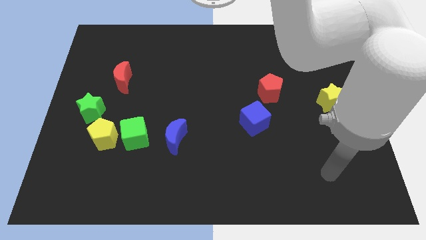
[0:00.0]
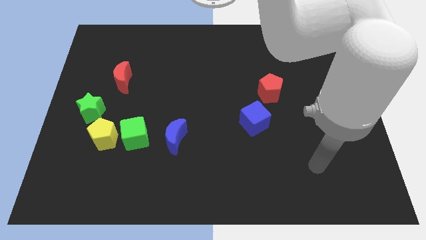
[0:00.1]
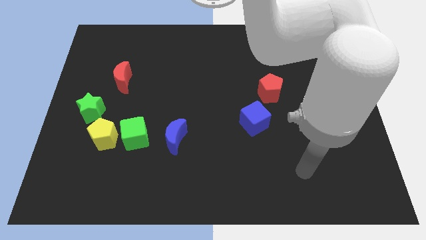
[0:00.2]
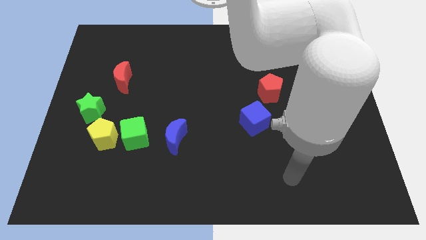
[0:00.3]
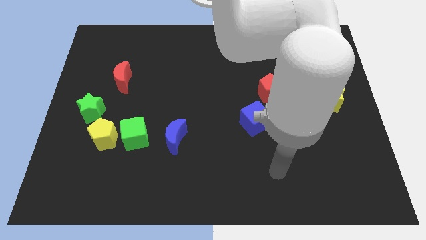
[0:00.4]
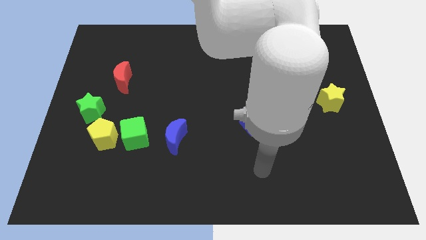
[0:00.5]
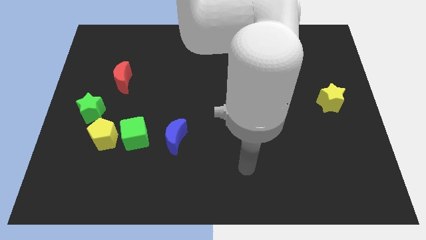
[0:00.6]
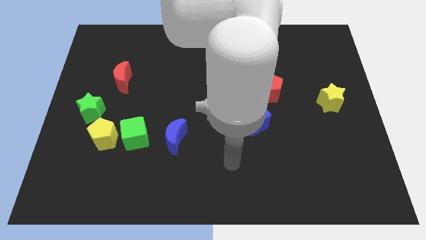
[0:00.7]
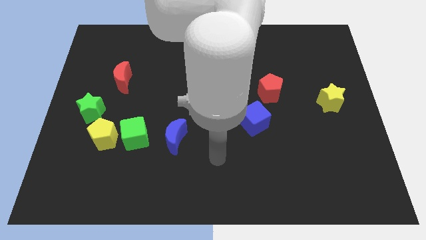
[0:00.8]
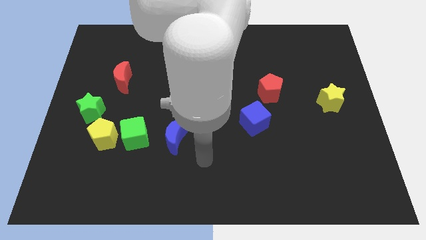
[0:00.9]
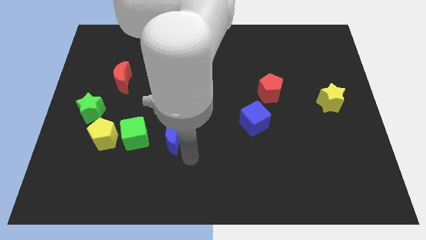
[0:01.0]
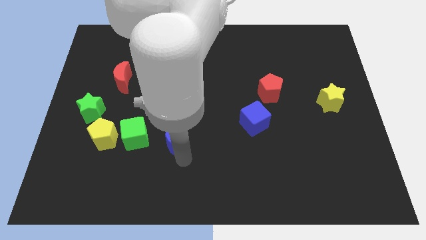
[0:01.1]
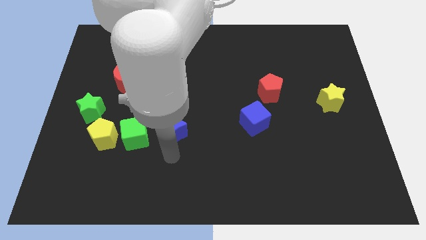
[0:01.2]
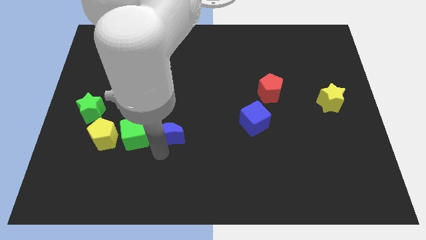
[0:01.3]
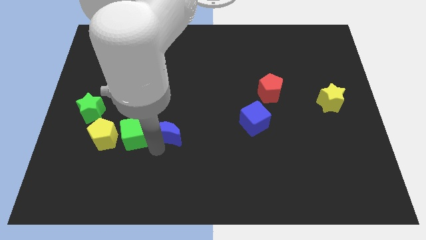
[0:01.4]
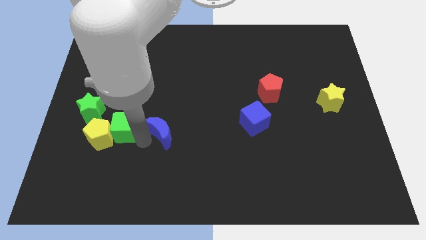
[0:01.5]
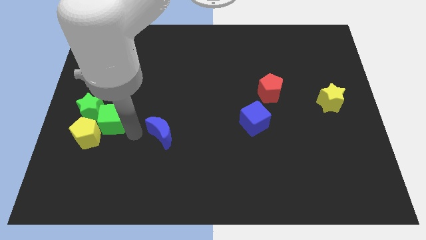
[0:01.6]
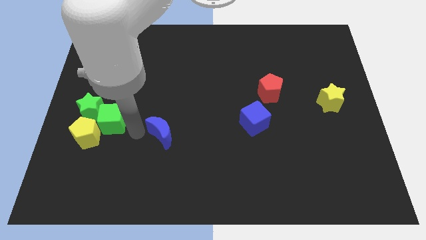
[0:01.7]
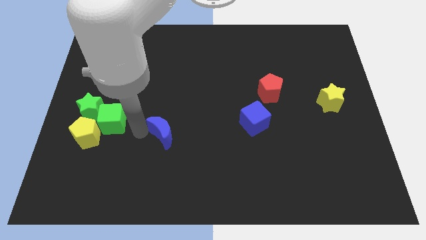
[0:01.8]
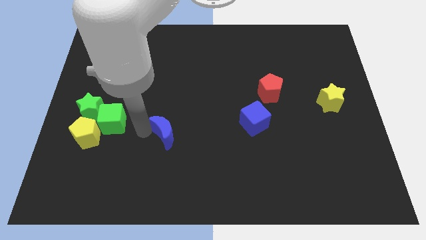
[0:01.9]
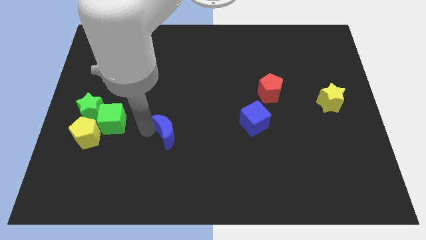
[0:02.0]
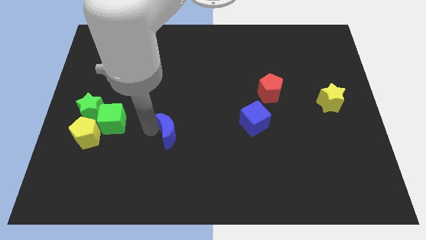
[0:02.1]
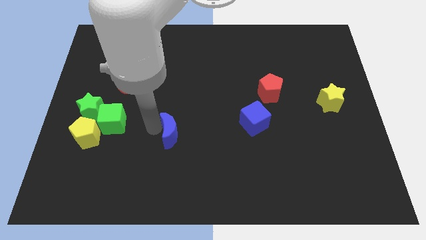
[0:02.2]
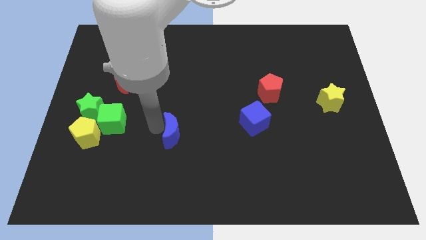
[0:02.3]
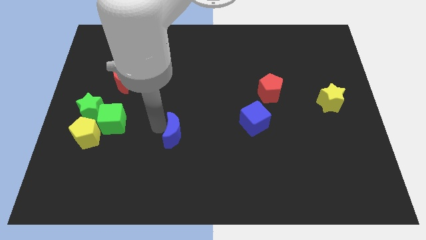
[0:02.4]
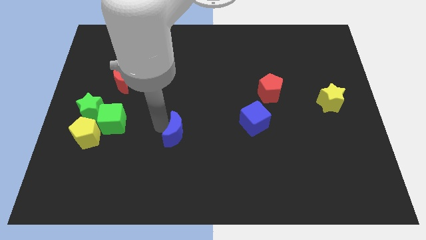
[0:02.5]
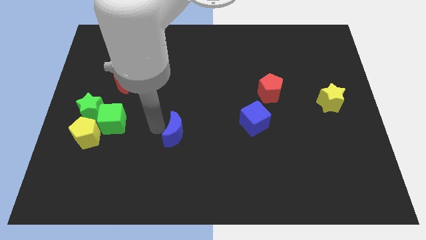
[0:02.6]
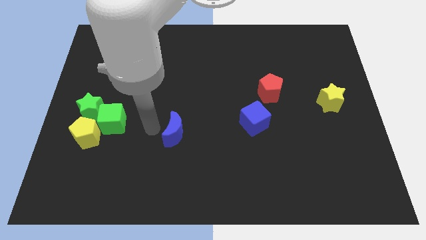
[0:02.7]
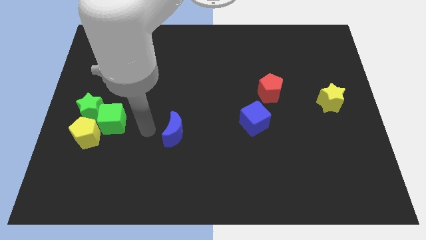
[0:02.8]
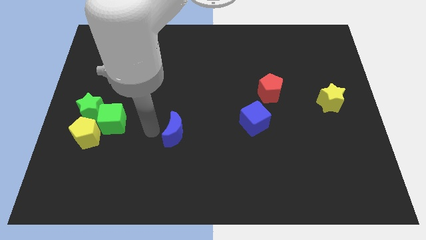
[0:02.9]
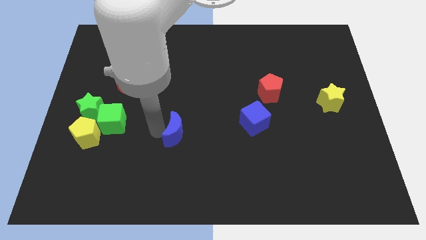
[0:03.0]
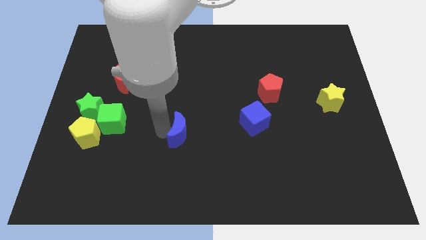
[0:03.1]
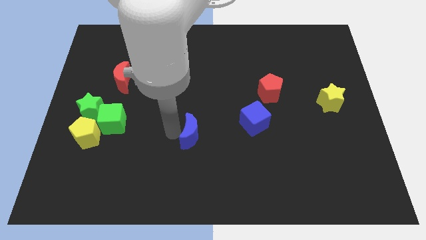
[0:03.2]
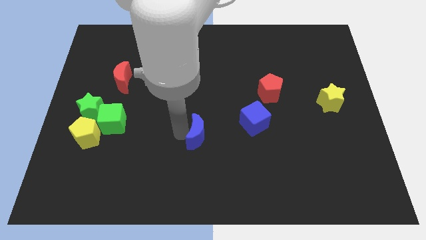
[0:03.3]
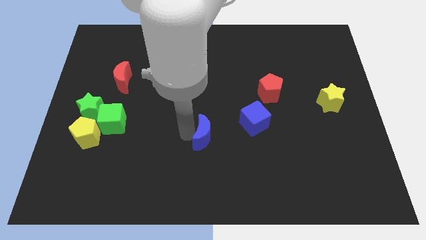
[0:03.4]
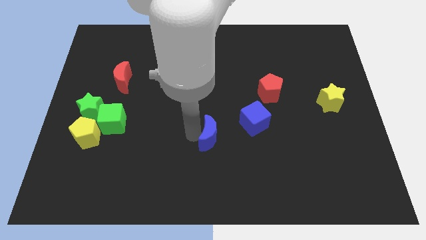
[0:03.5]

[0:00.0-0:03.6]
push the blue moon a little bit right

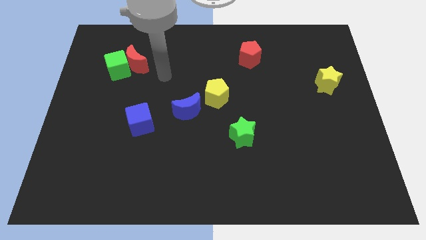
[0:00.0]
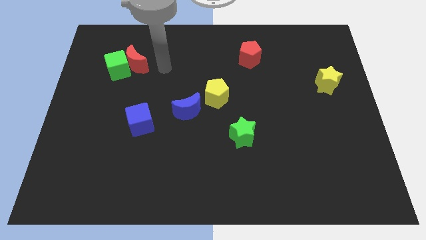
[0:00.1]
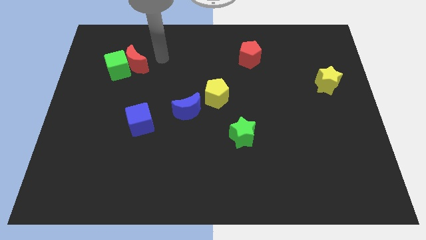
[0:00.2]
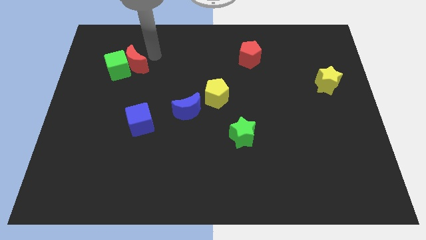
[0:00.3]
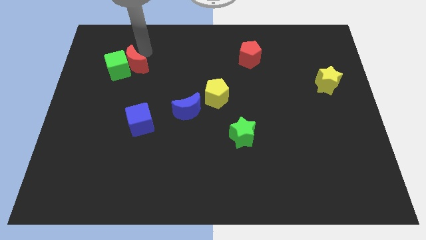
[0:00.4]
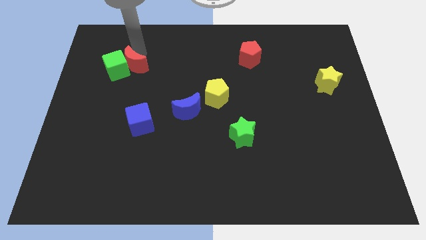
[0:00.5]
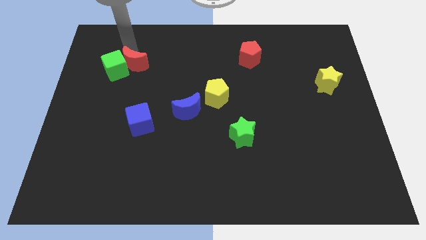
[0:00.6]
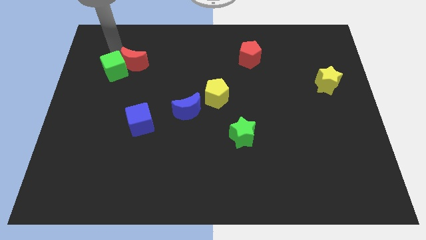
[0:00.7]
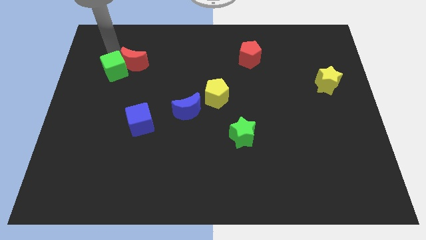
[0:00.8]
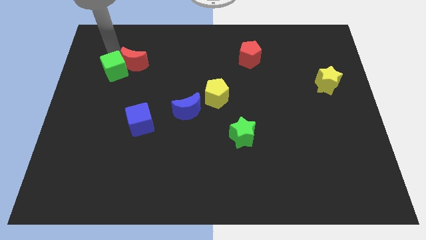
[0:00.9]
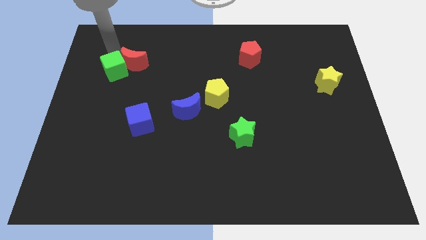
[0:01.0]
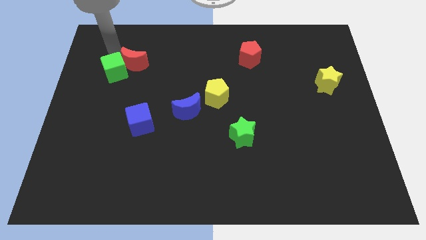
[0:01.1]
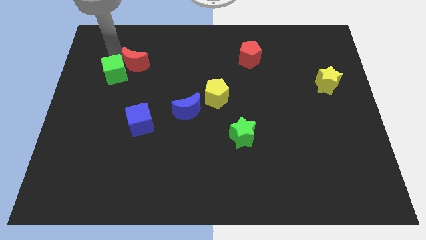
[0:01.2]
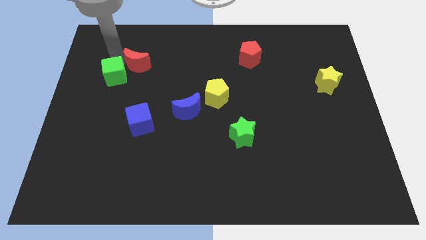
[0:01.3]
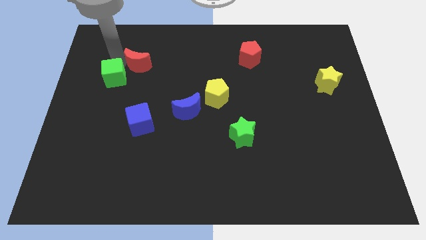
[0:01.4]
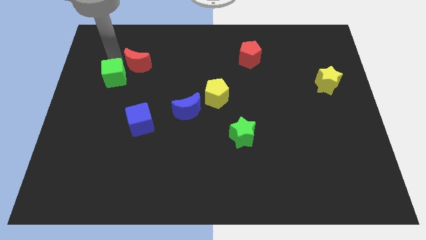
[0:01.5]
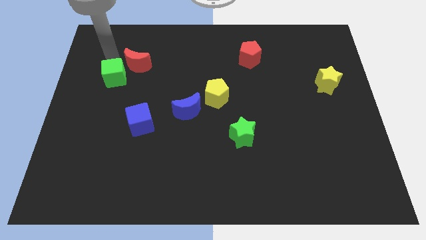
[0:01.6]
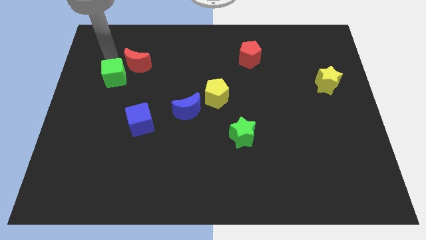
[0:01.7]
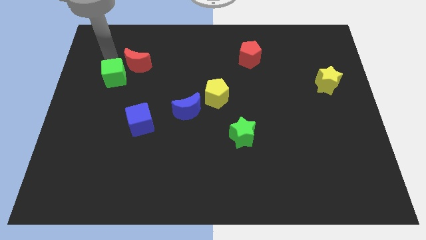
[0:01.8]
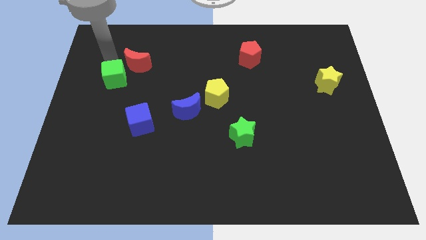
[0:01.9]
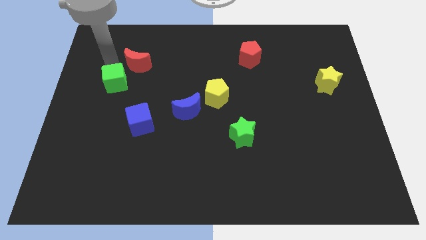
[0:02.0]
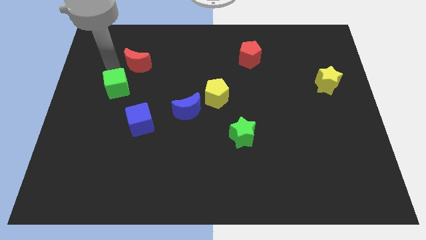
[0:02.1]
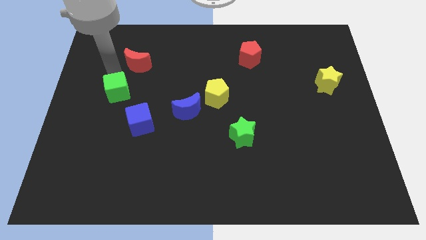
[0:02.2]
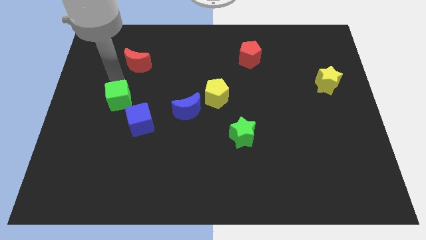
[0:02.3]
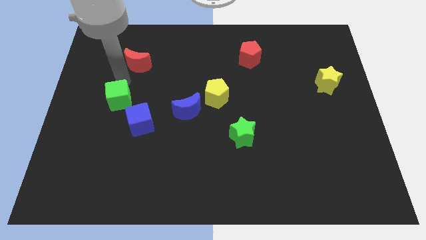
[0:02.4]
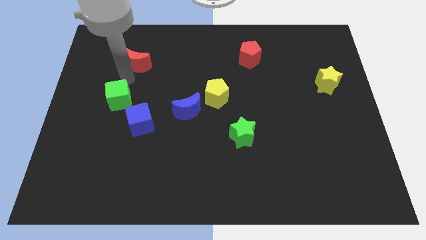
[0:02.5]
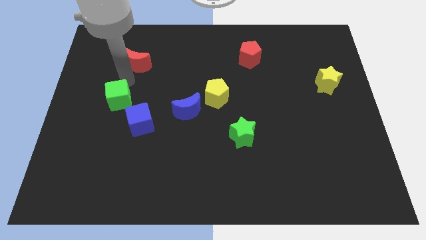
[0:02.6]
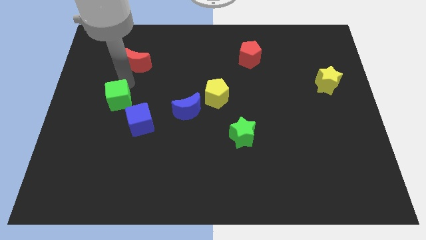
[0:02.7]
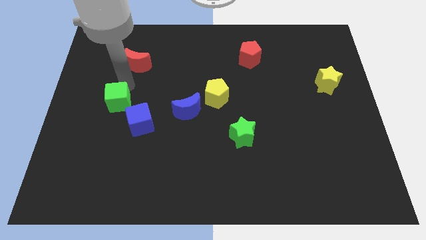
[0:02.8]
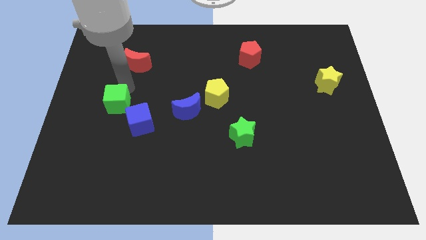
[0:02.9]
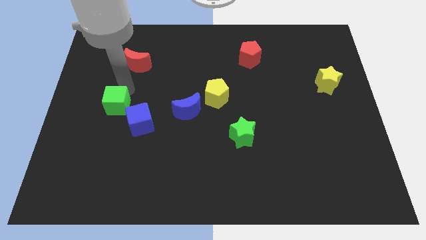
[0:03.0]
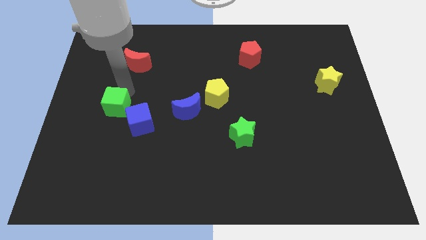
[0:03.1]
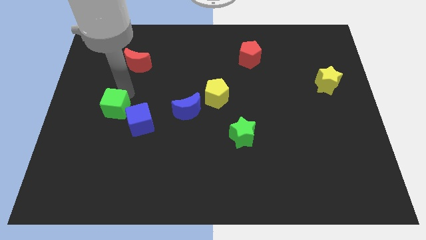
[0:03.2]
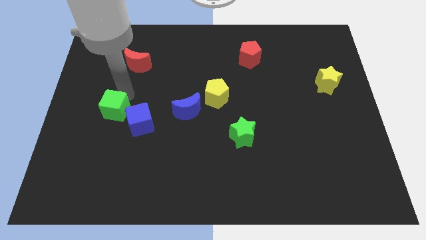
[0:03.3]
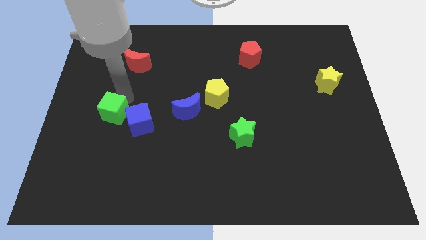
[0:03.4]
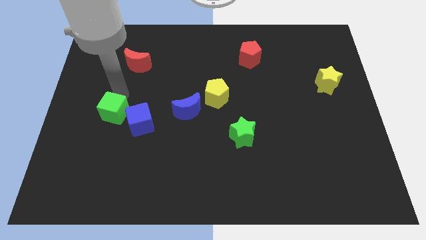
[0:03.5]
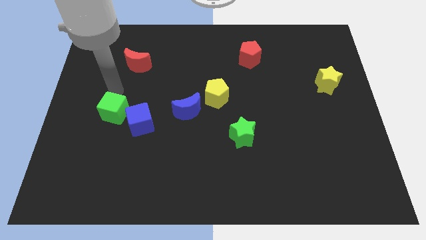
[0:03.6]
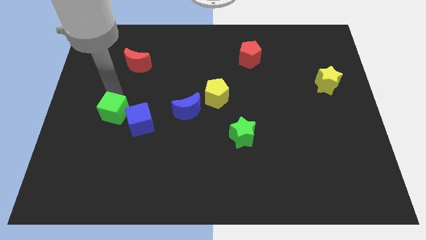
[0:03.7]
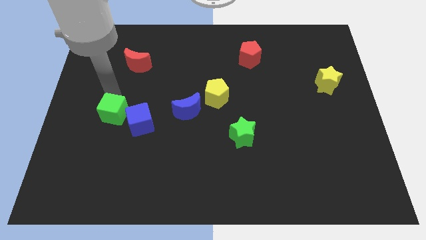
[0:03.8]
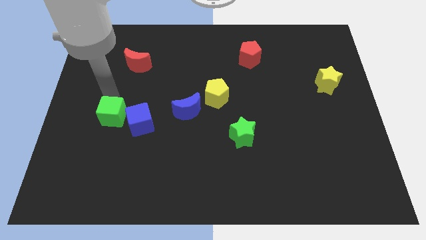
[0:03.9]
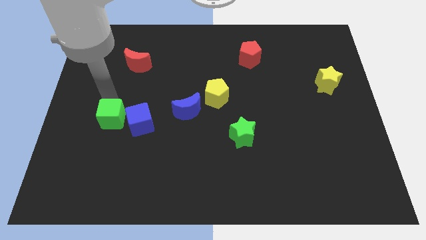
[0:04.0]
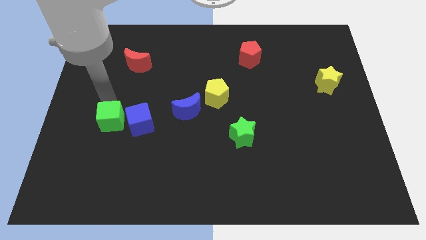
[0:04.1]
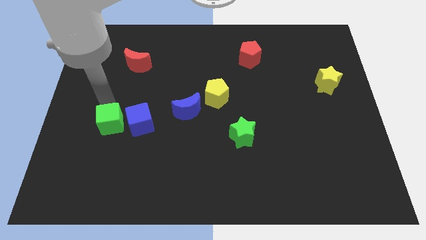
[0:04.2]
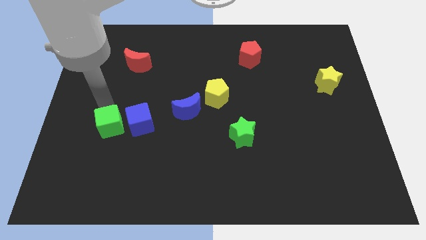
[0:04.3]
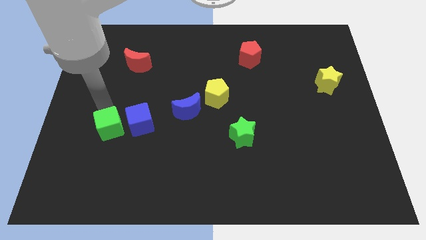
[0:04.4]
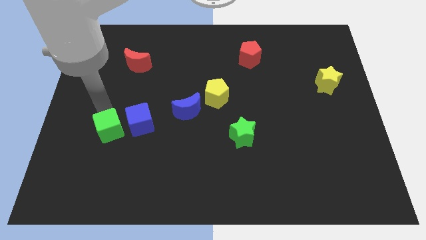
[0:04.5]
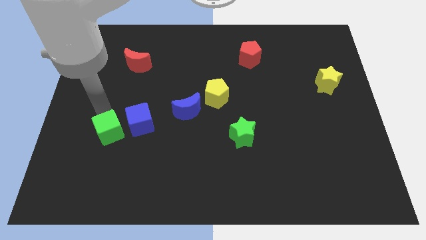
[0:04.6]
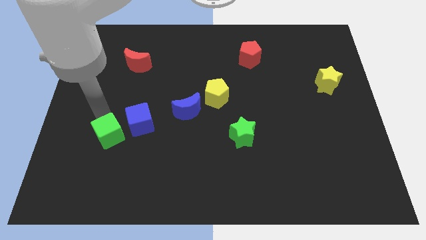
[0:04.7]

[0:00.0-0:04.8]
move the green cube downwards
